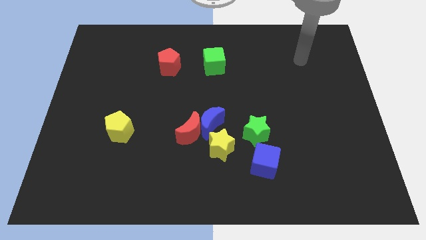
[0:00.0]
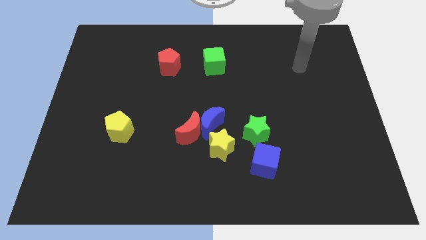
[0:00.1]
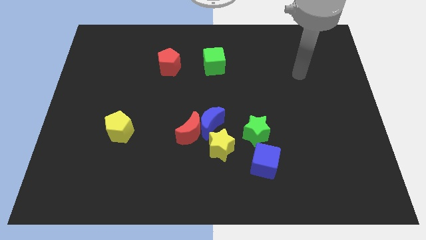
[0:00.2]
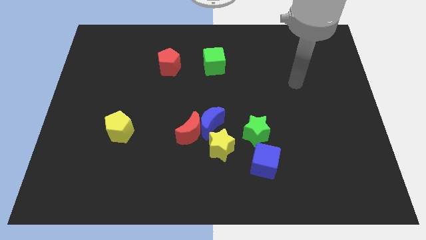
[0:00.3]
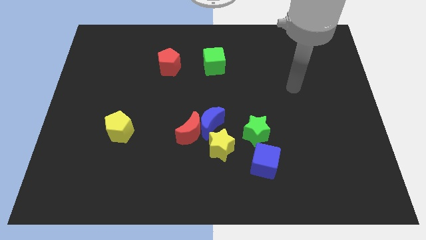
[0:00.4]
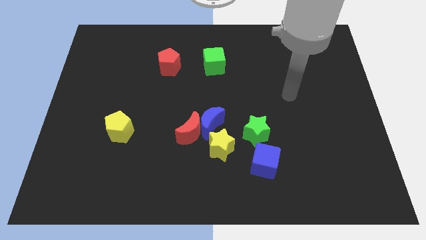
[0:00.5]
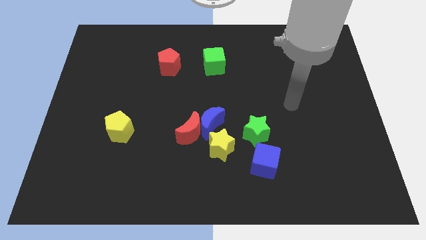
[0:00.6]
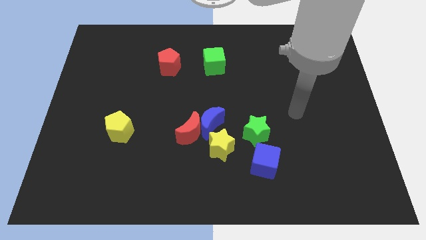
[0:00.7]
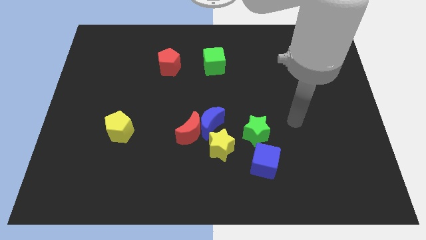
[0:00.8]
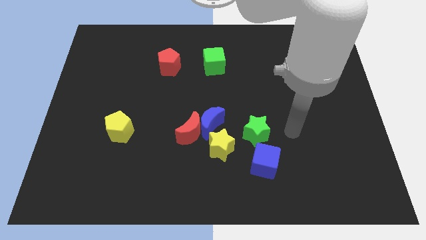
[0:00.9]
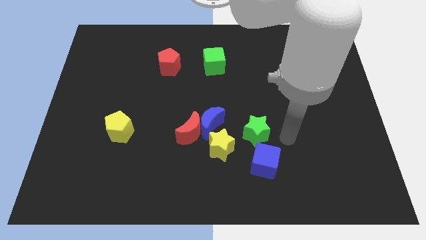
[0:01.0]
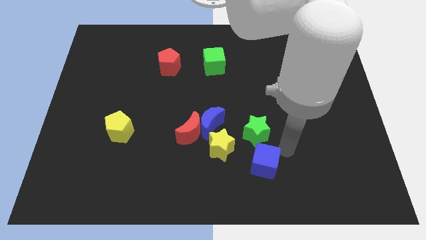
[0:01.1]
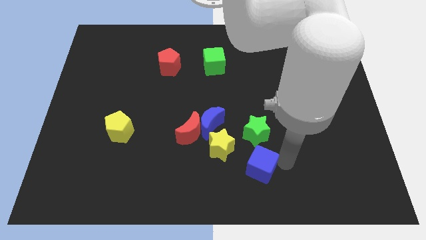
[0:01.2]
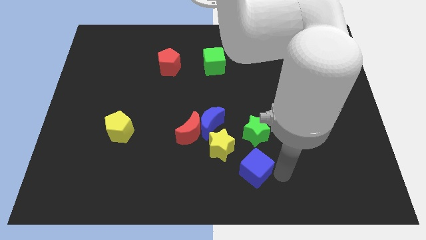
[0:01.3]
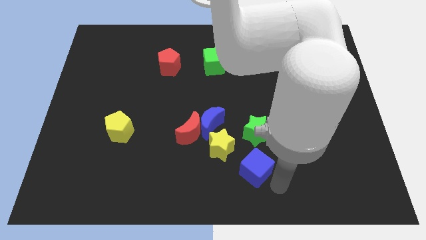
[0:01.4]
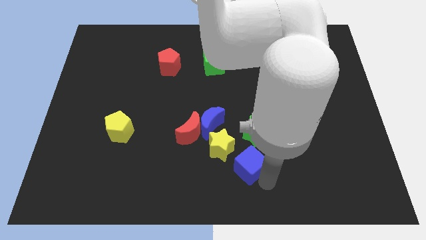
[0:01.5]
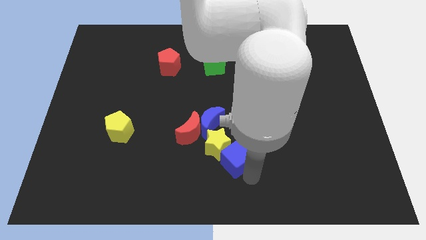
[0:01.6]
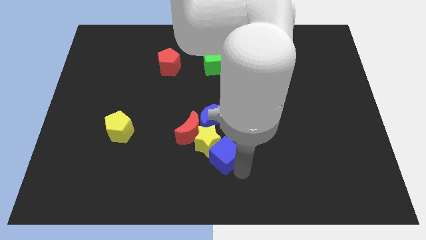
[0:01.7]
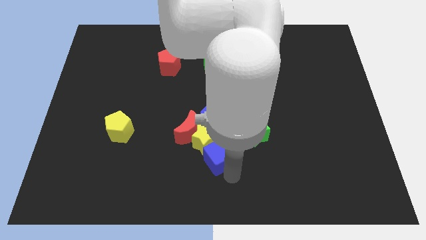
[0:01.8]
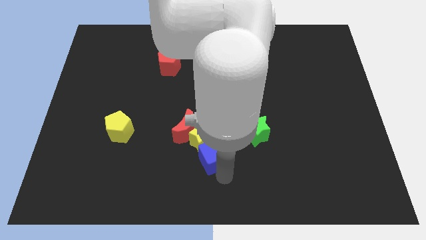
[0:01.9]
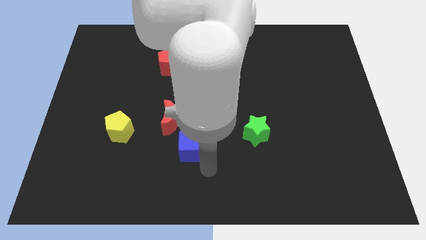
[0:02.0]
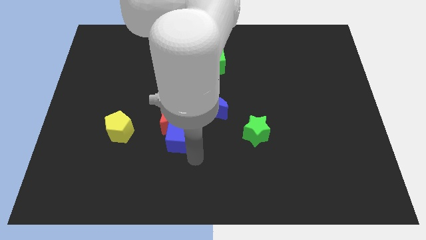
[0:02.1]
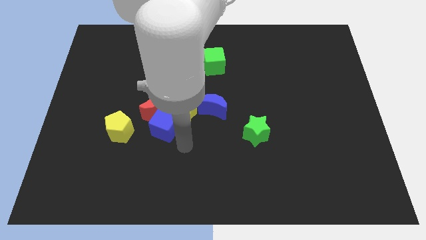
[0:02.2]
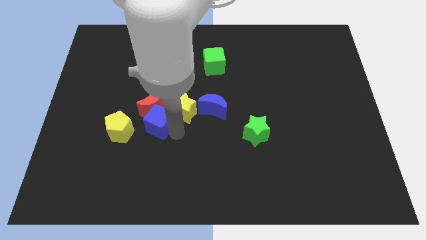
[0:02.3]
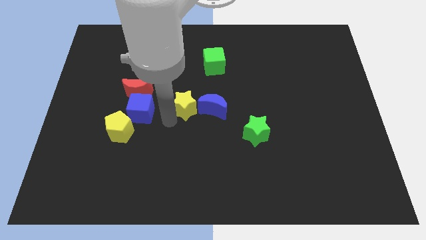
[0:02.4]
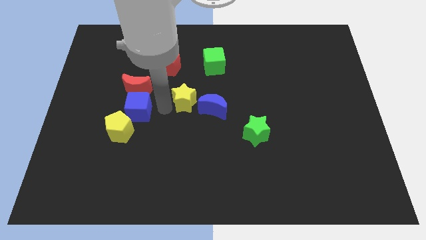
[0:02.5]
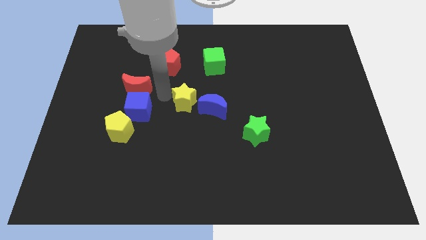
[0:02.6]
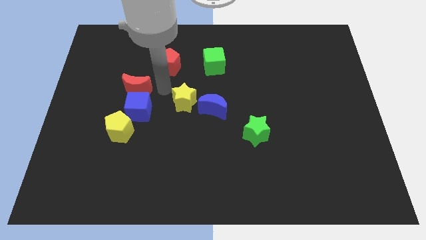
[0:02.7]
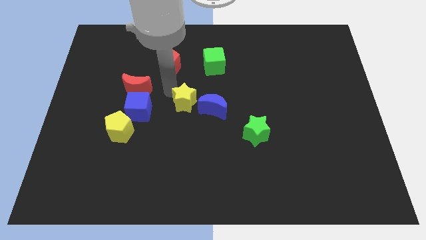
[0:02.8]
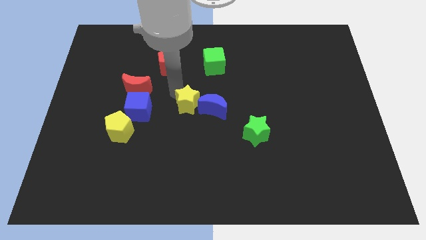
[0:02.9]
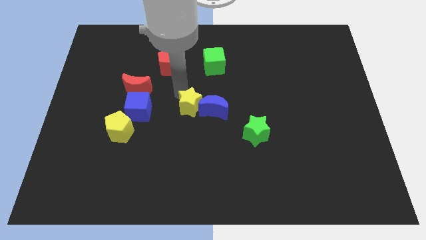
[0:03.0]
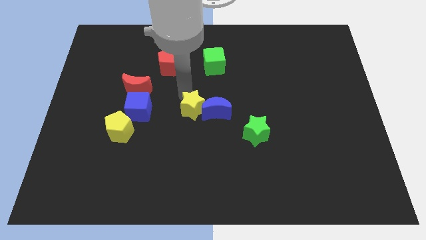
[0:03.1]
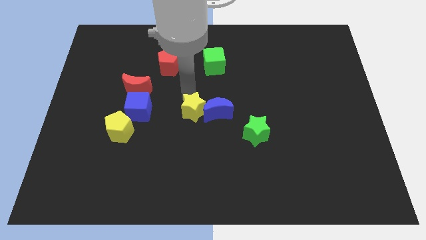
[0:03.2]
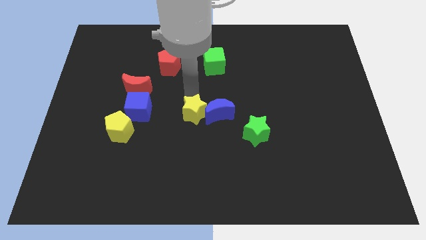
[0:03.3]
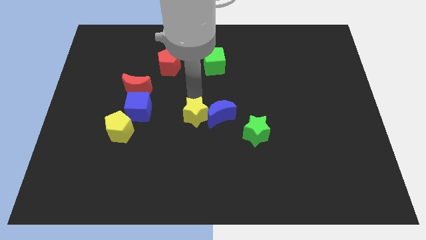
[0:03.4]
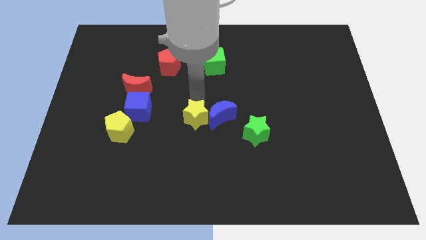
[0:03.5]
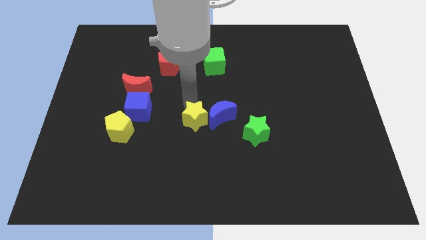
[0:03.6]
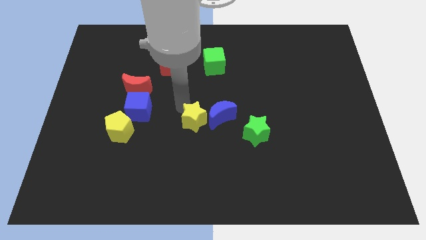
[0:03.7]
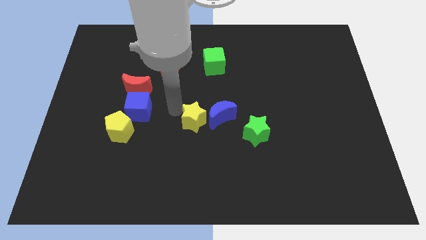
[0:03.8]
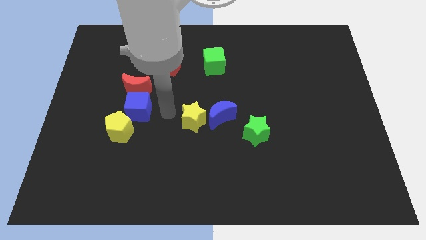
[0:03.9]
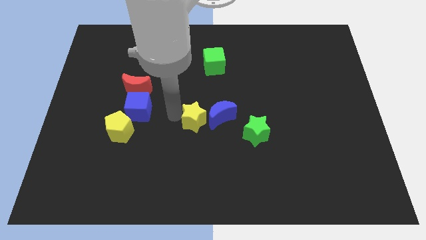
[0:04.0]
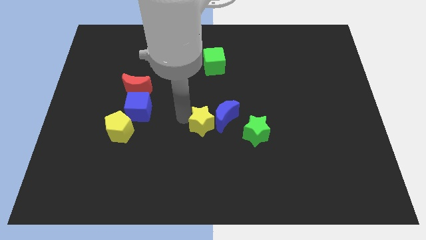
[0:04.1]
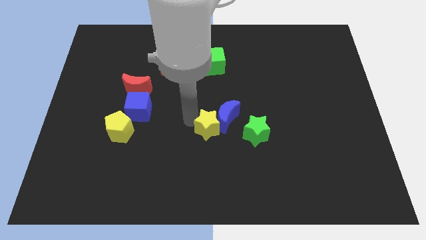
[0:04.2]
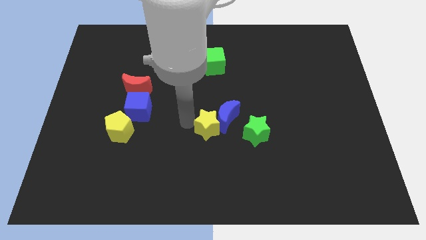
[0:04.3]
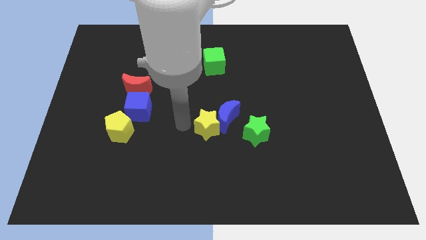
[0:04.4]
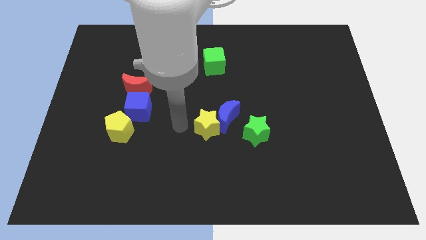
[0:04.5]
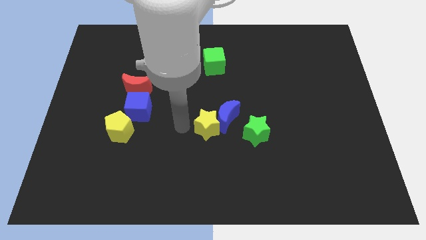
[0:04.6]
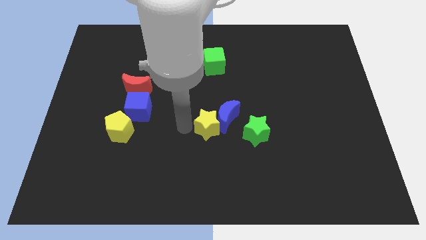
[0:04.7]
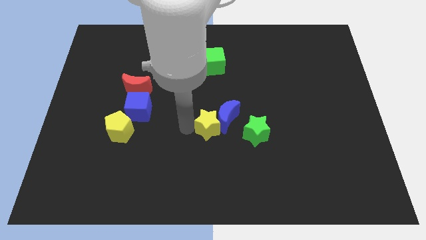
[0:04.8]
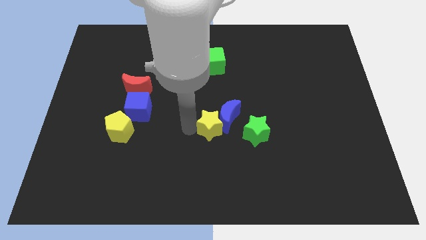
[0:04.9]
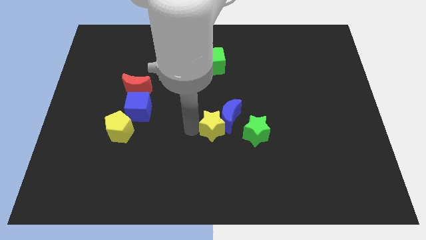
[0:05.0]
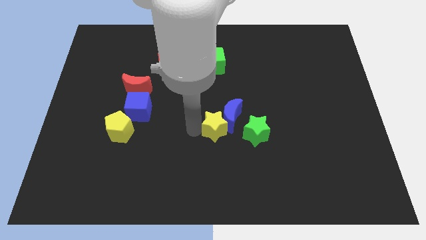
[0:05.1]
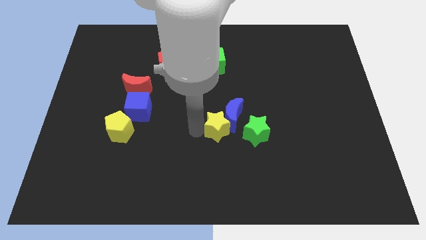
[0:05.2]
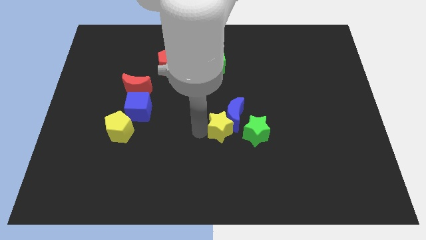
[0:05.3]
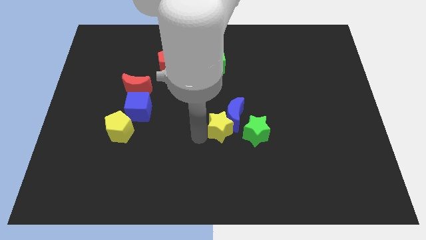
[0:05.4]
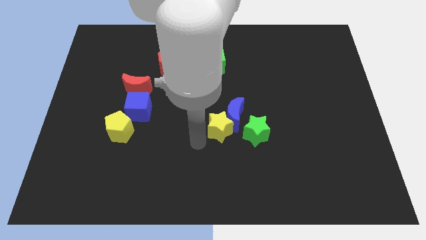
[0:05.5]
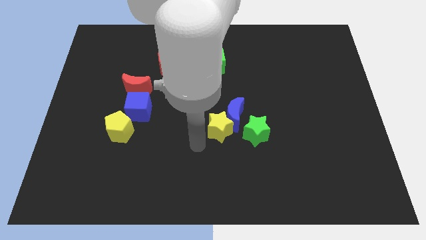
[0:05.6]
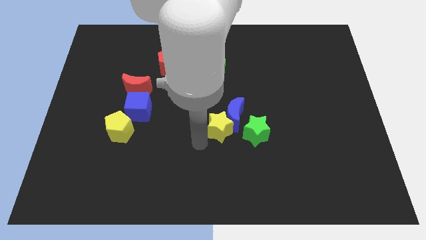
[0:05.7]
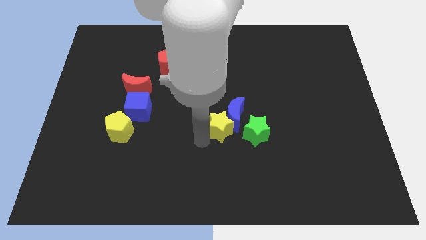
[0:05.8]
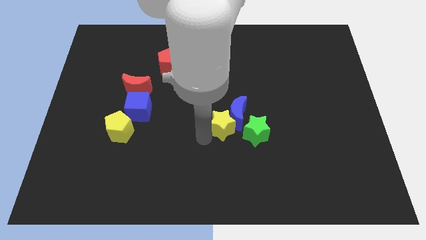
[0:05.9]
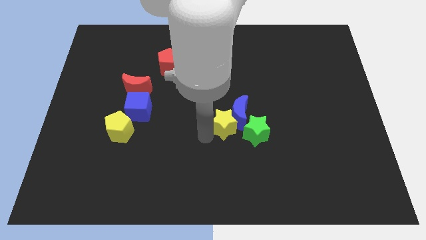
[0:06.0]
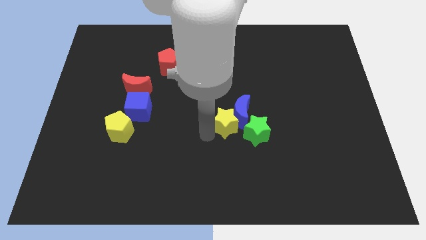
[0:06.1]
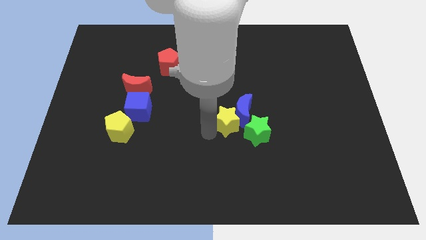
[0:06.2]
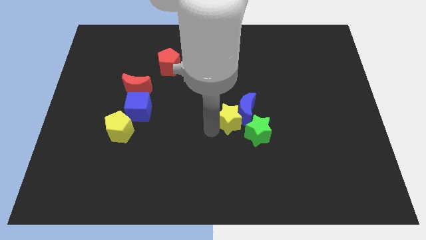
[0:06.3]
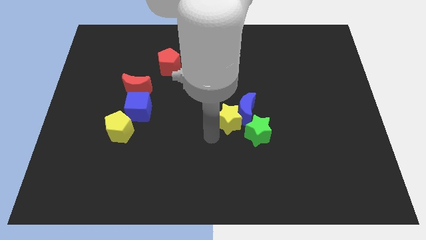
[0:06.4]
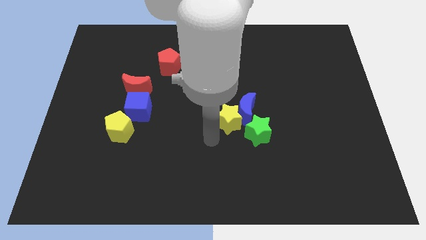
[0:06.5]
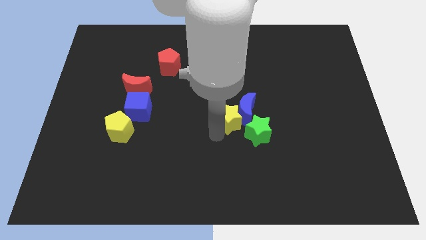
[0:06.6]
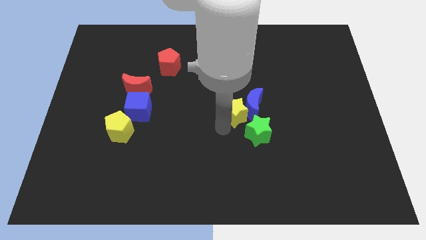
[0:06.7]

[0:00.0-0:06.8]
put the yellow star to the top side of the green star
